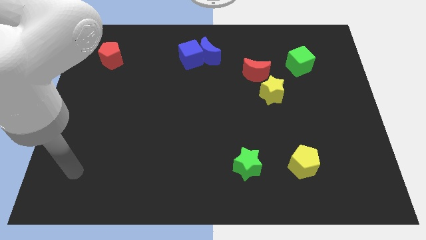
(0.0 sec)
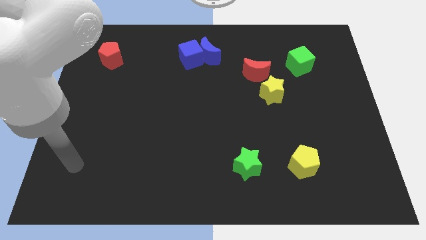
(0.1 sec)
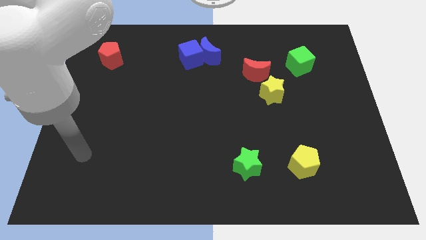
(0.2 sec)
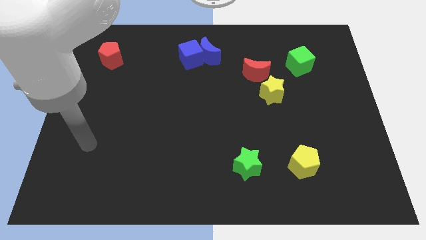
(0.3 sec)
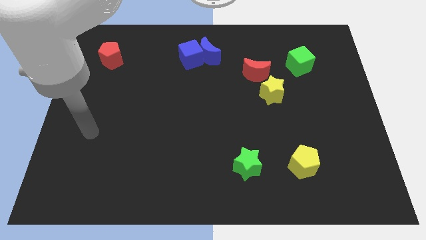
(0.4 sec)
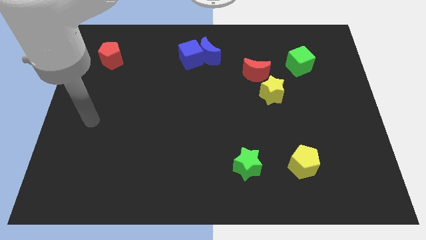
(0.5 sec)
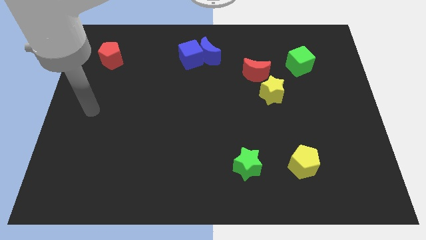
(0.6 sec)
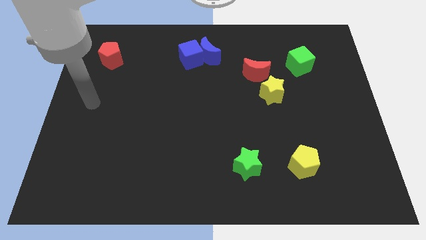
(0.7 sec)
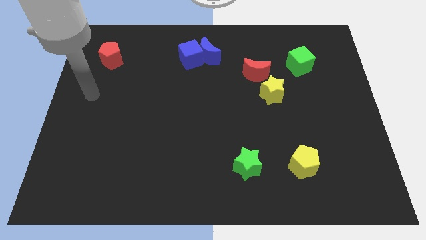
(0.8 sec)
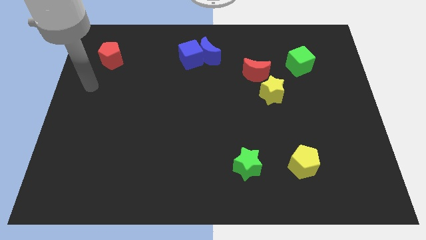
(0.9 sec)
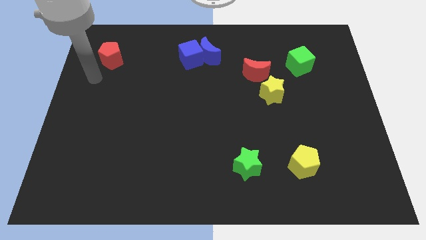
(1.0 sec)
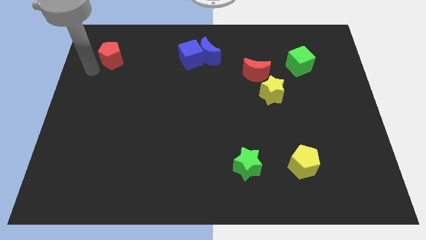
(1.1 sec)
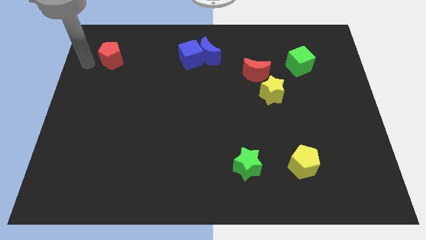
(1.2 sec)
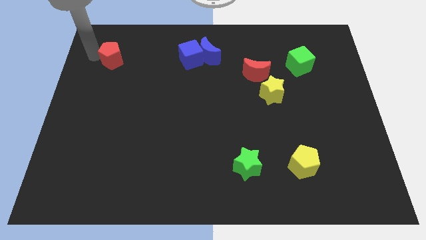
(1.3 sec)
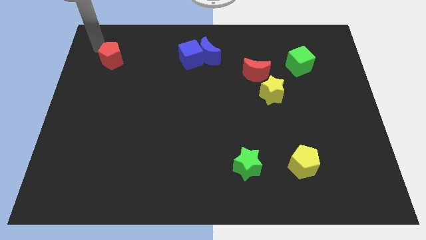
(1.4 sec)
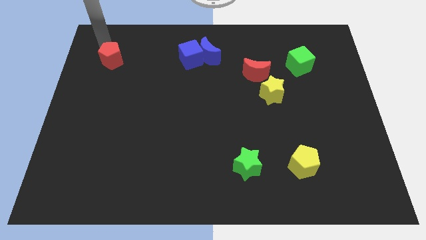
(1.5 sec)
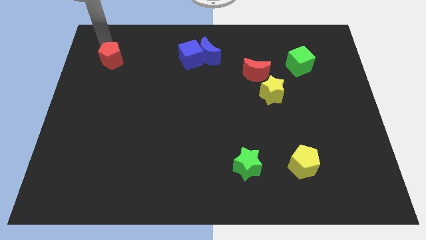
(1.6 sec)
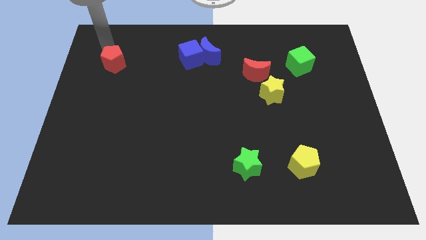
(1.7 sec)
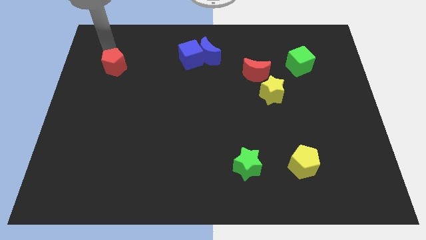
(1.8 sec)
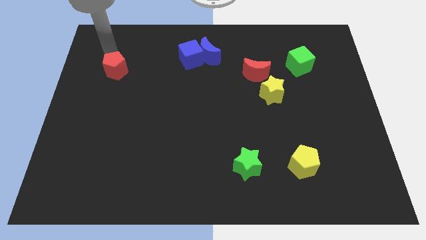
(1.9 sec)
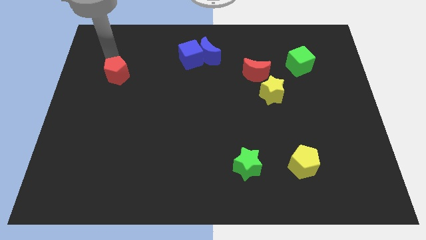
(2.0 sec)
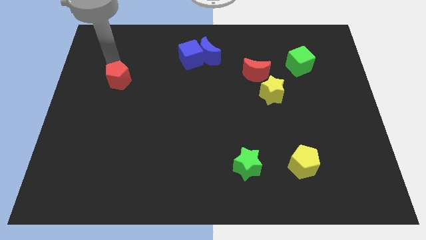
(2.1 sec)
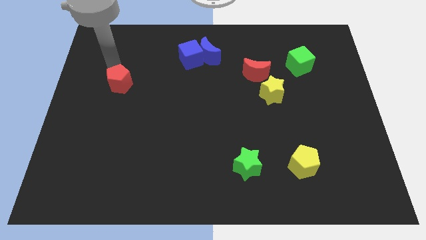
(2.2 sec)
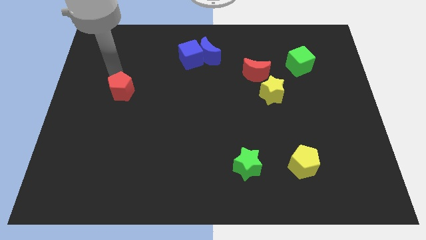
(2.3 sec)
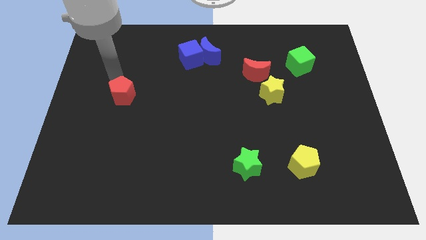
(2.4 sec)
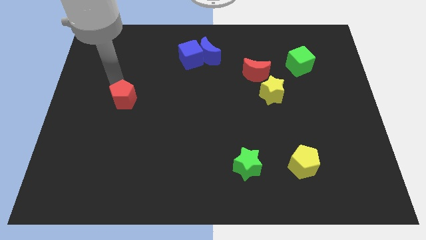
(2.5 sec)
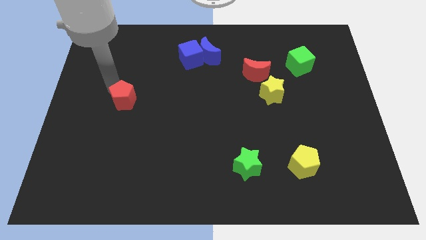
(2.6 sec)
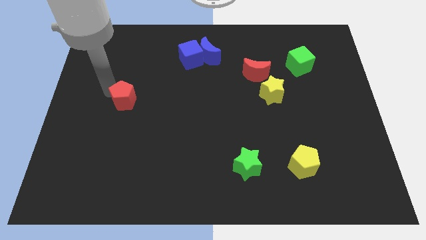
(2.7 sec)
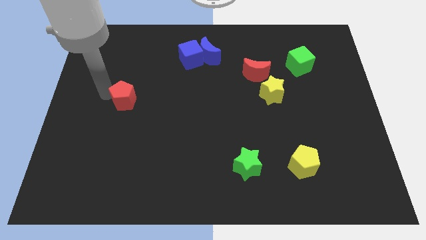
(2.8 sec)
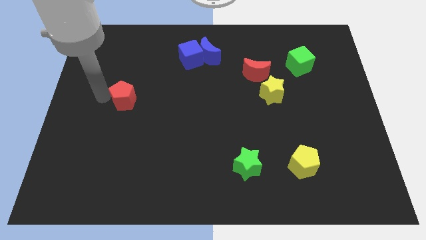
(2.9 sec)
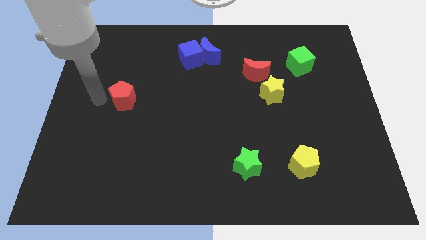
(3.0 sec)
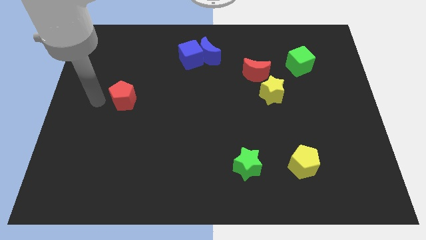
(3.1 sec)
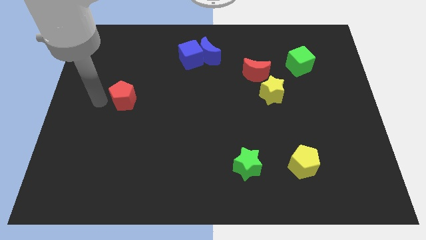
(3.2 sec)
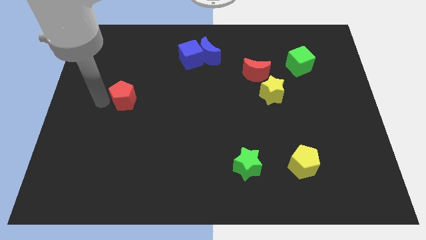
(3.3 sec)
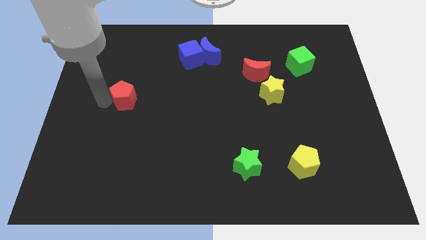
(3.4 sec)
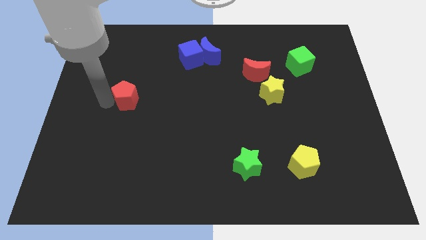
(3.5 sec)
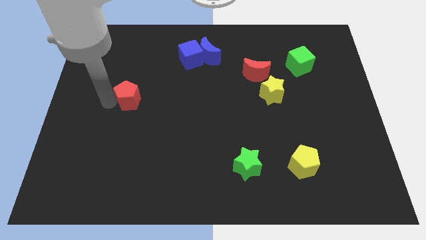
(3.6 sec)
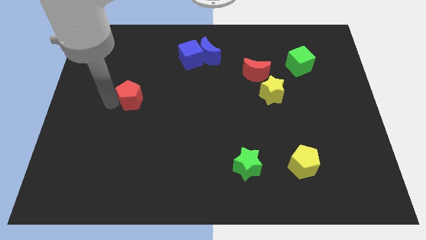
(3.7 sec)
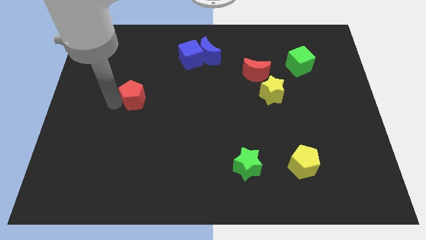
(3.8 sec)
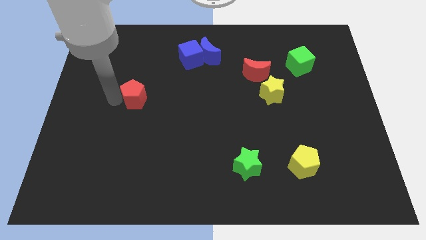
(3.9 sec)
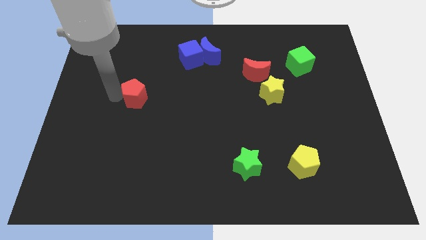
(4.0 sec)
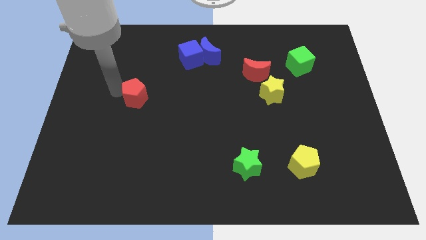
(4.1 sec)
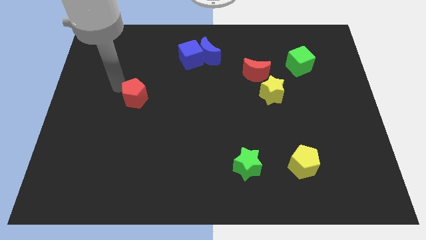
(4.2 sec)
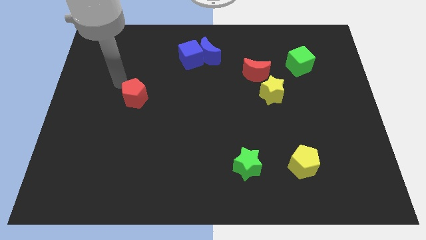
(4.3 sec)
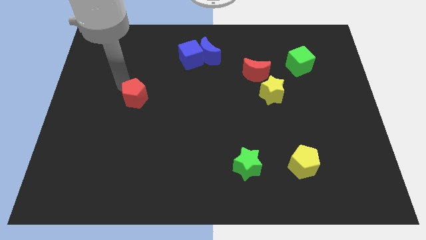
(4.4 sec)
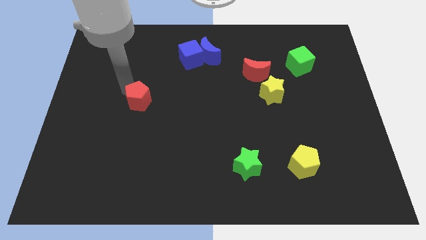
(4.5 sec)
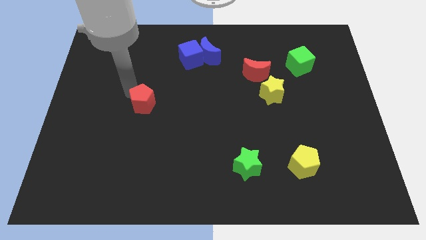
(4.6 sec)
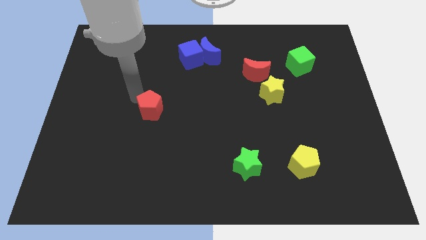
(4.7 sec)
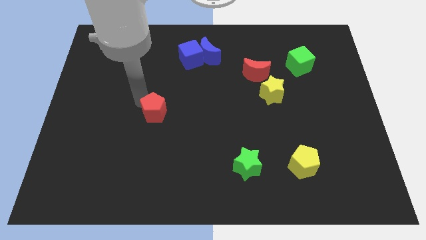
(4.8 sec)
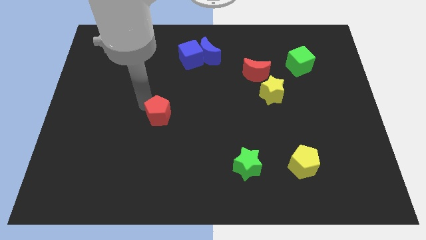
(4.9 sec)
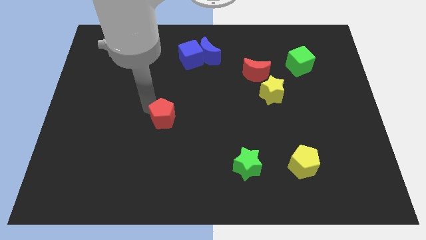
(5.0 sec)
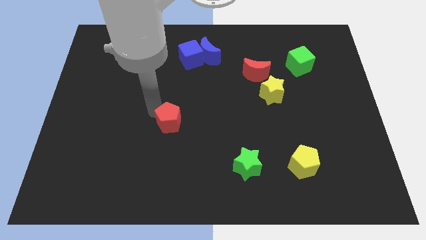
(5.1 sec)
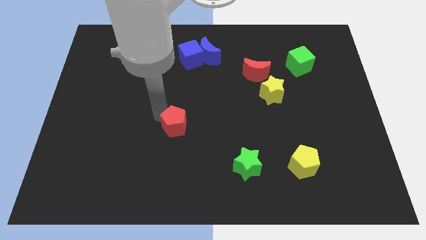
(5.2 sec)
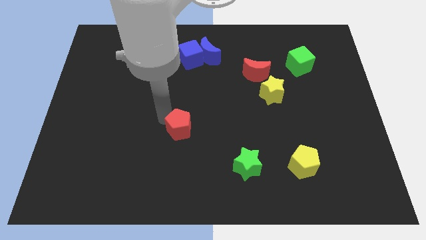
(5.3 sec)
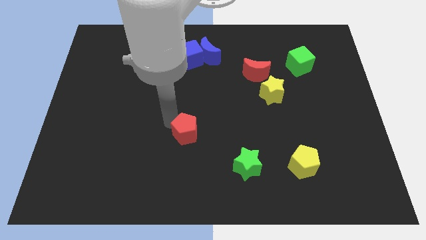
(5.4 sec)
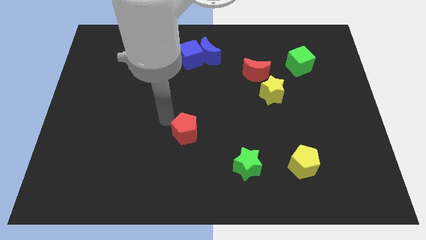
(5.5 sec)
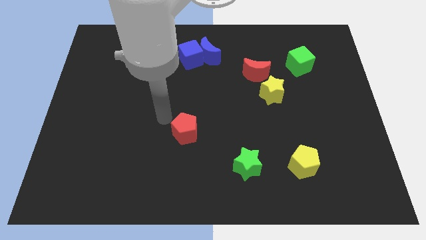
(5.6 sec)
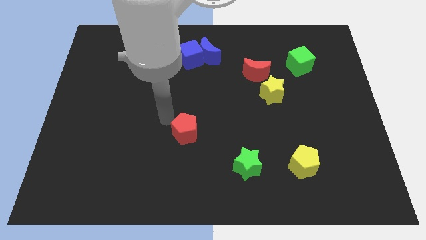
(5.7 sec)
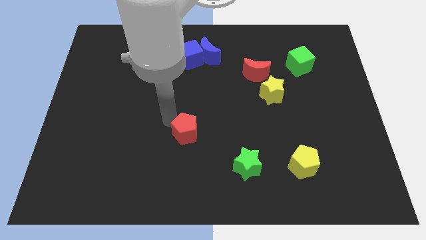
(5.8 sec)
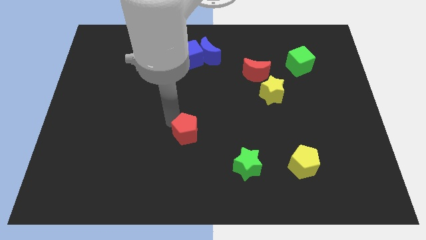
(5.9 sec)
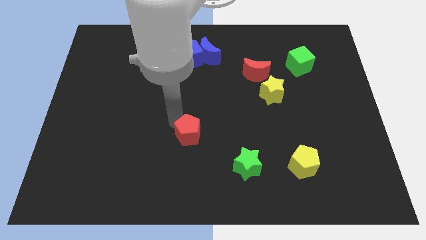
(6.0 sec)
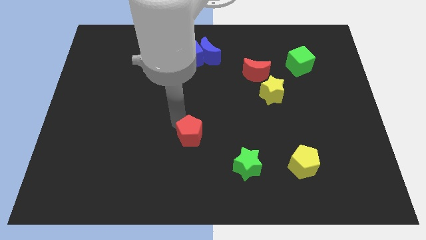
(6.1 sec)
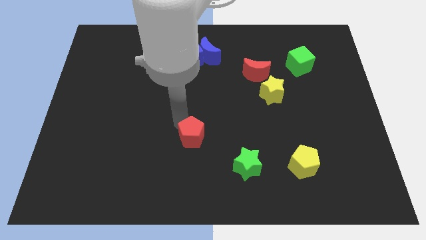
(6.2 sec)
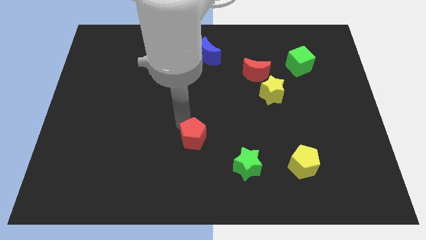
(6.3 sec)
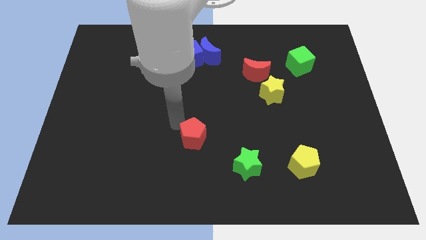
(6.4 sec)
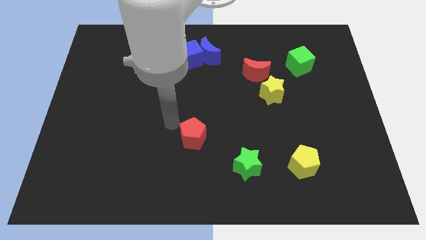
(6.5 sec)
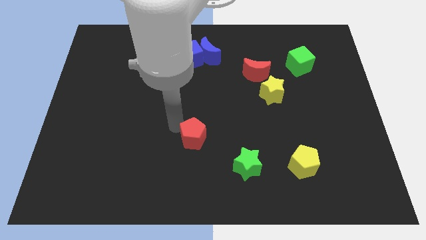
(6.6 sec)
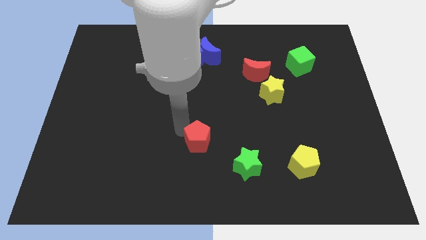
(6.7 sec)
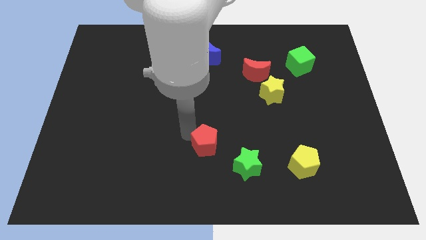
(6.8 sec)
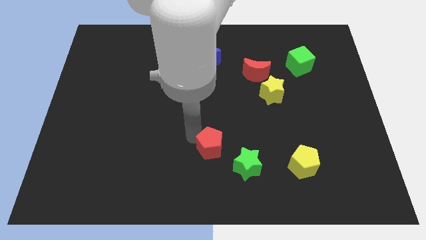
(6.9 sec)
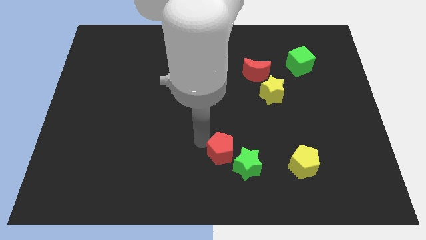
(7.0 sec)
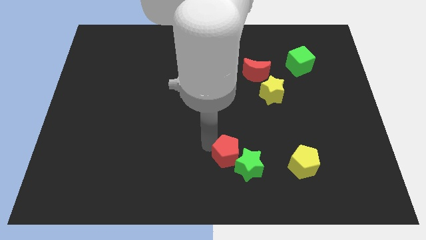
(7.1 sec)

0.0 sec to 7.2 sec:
push the red pentagon next to the green star
